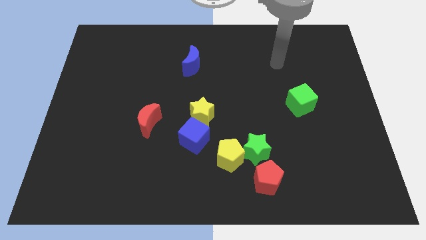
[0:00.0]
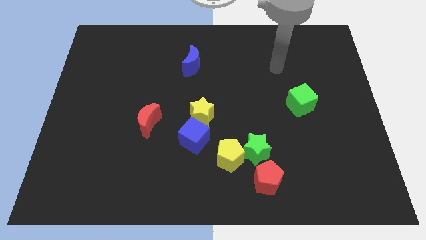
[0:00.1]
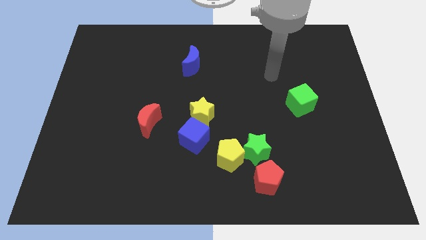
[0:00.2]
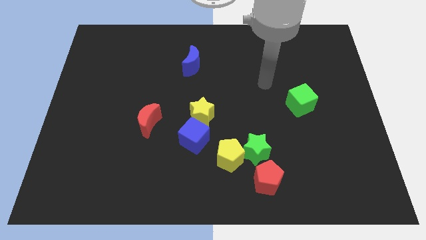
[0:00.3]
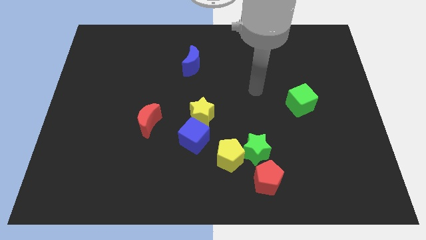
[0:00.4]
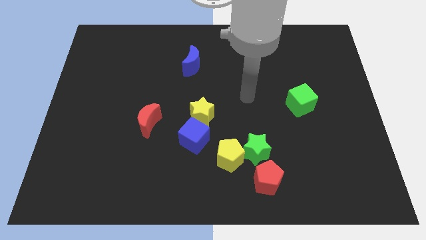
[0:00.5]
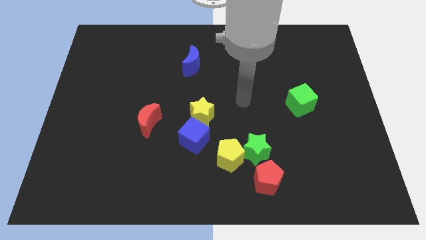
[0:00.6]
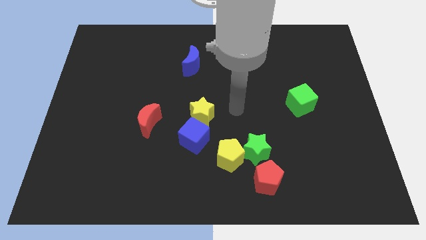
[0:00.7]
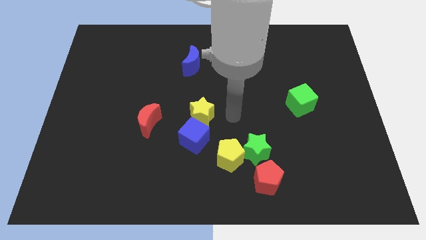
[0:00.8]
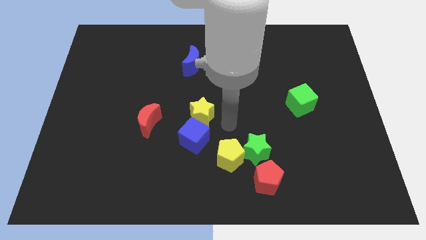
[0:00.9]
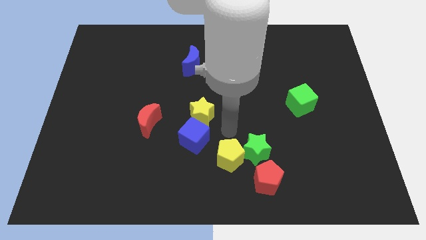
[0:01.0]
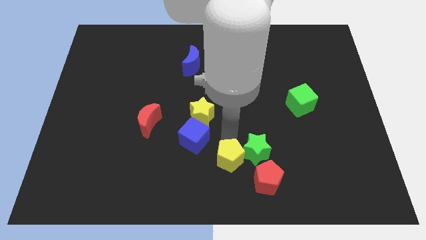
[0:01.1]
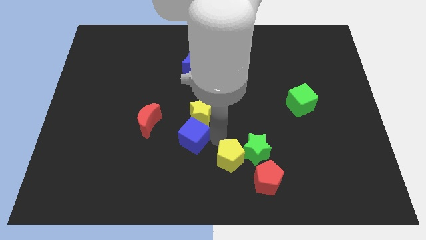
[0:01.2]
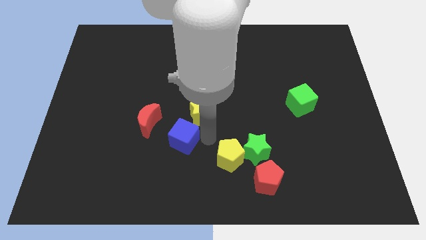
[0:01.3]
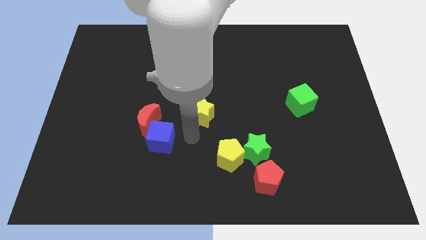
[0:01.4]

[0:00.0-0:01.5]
pull the yellow star apart from the blue cube

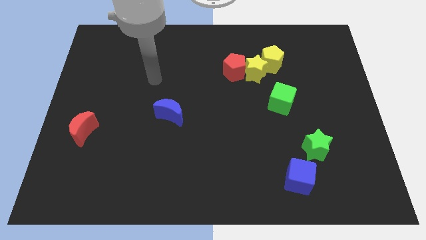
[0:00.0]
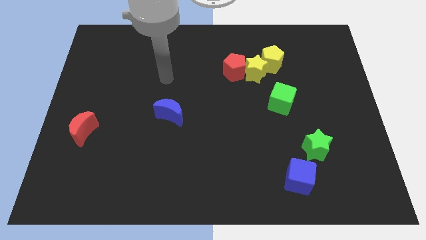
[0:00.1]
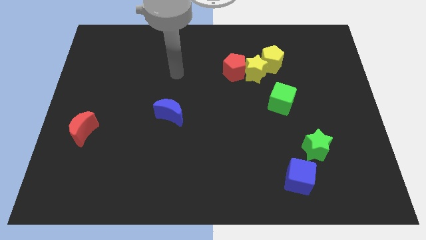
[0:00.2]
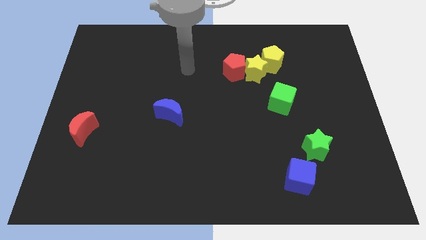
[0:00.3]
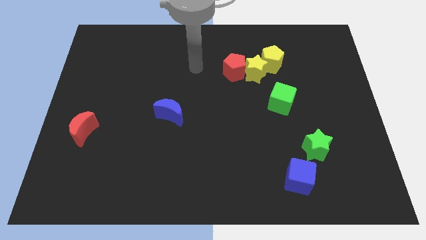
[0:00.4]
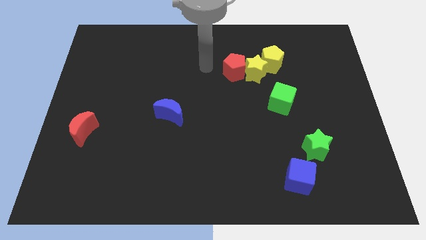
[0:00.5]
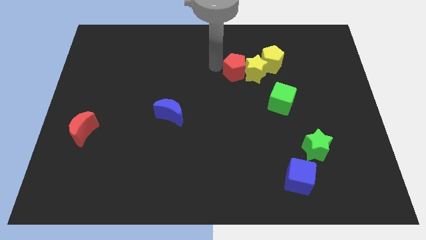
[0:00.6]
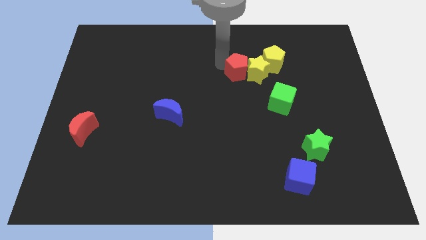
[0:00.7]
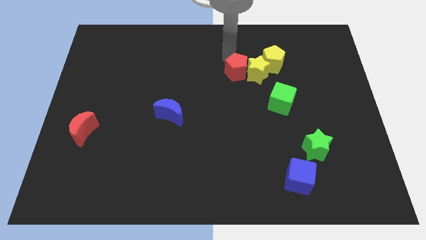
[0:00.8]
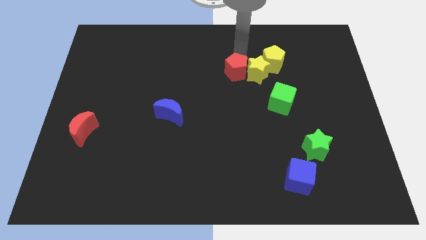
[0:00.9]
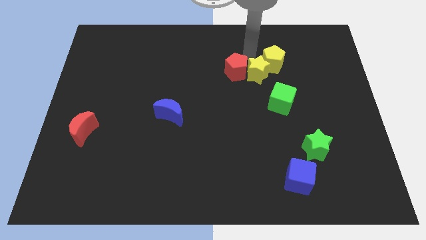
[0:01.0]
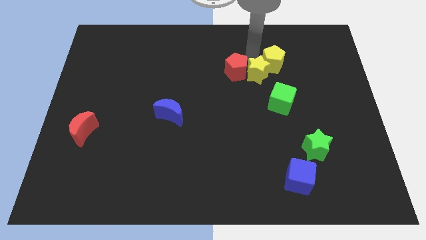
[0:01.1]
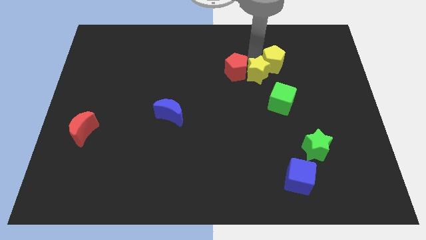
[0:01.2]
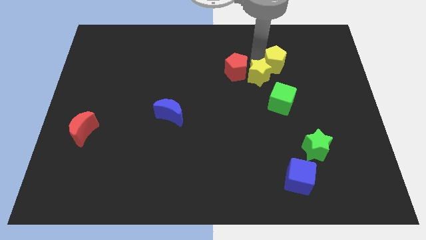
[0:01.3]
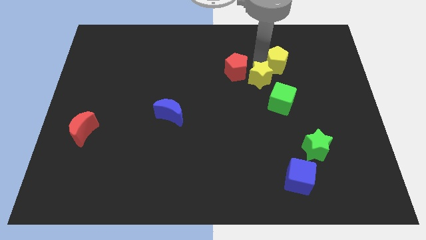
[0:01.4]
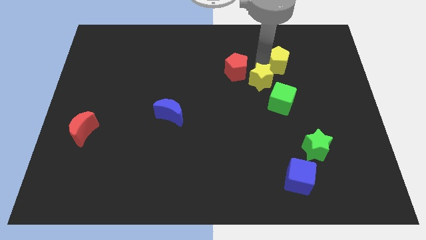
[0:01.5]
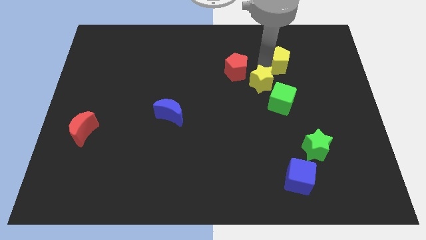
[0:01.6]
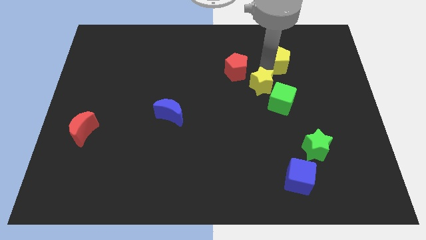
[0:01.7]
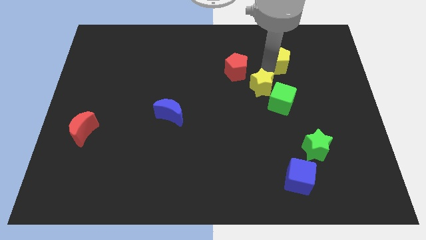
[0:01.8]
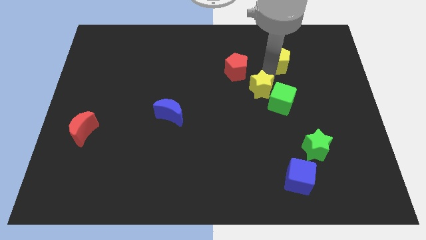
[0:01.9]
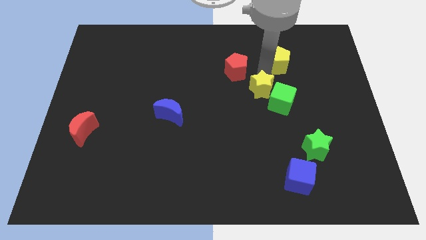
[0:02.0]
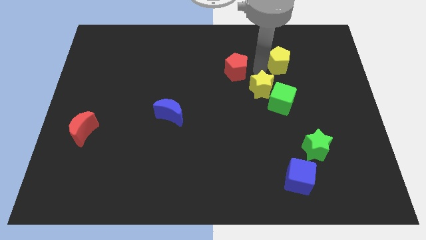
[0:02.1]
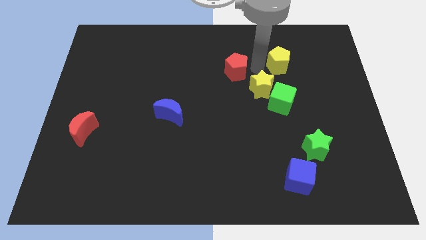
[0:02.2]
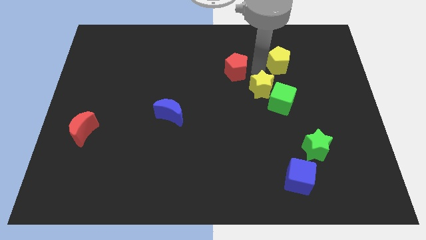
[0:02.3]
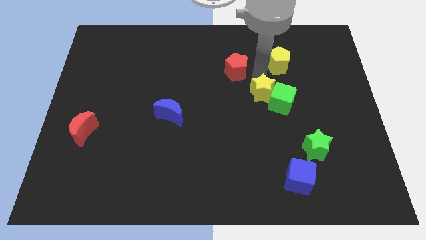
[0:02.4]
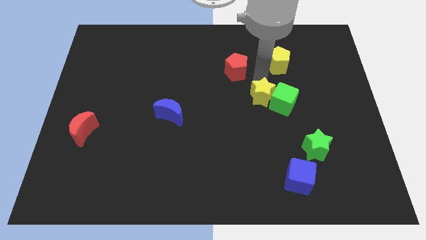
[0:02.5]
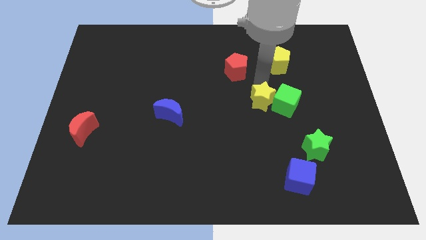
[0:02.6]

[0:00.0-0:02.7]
move the yellow star away from the red pentagon and yellow pentagon

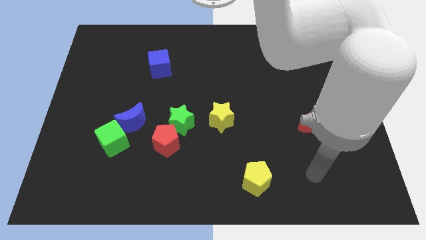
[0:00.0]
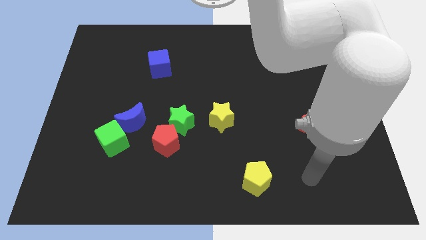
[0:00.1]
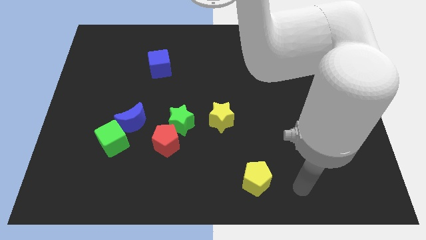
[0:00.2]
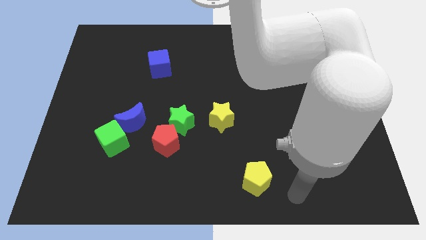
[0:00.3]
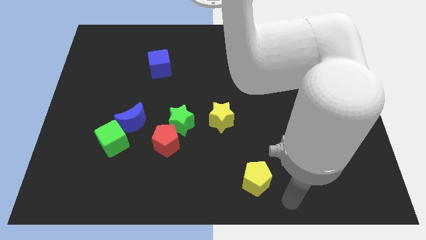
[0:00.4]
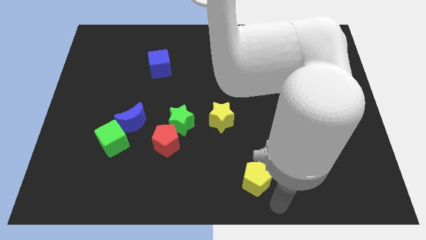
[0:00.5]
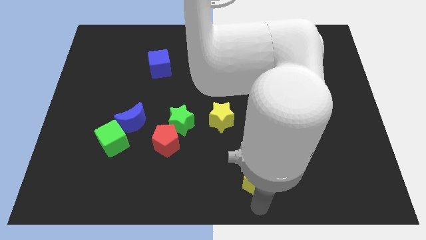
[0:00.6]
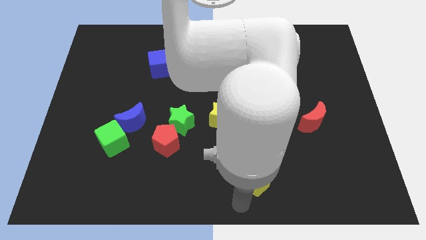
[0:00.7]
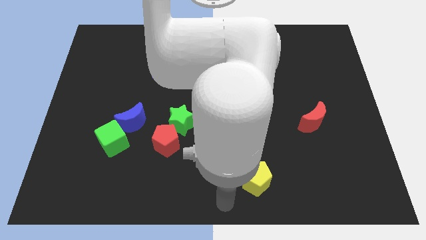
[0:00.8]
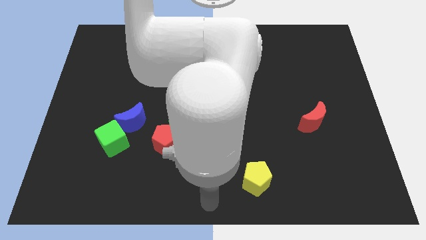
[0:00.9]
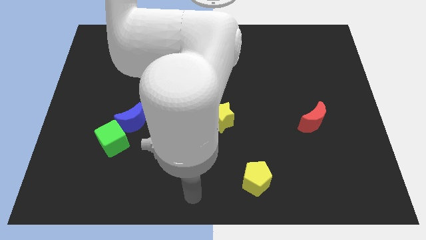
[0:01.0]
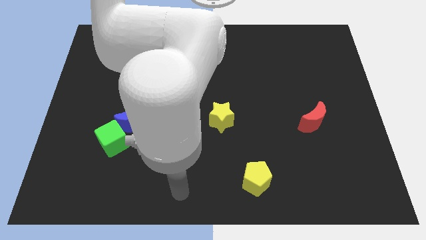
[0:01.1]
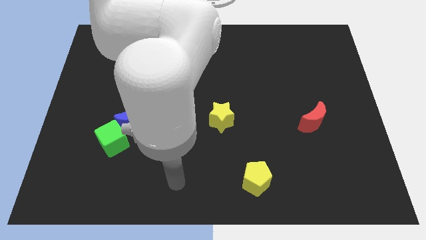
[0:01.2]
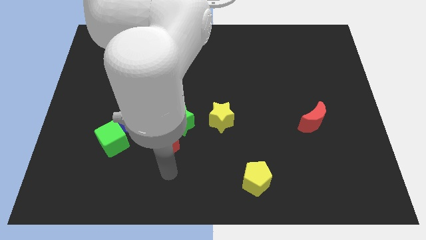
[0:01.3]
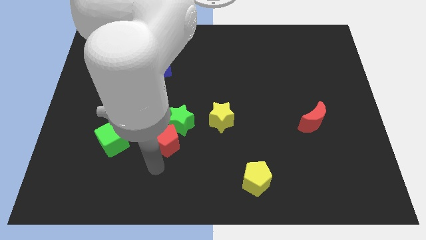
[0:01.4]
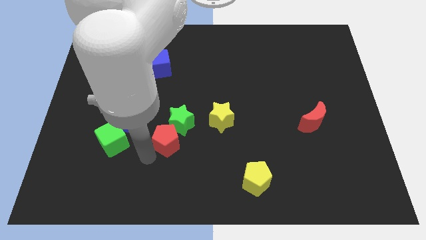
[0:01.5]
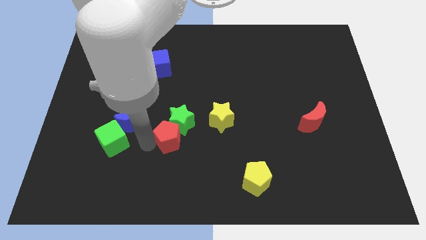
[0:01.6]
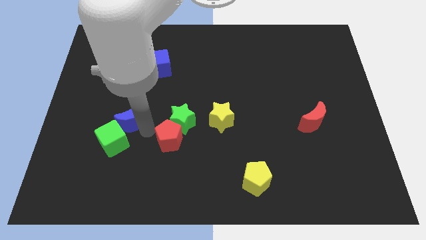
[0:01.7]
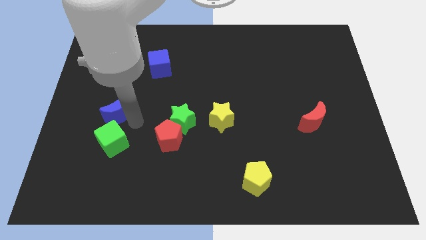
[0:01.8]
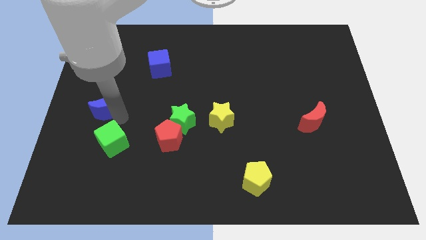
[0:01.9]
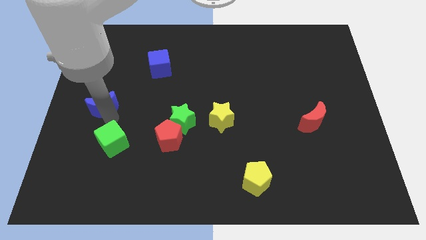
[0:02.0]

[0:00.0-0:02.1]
pull the green cube apart from the blue moon

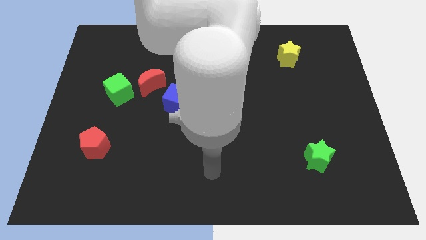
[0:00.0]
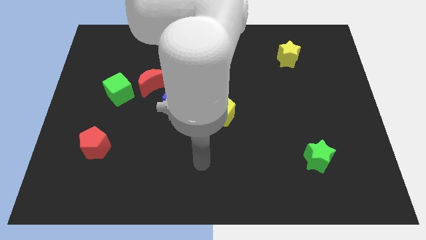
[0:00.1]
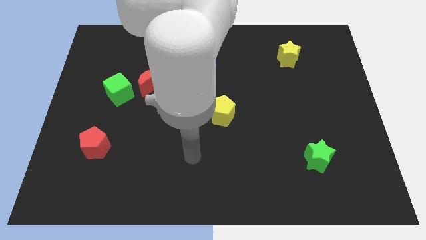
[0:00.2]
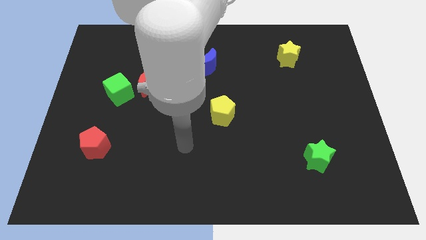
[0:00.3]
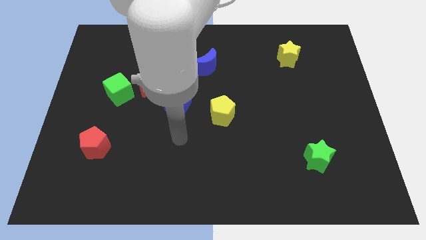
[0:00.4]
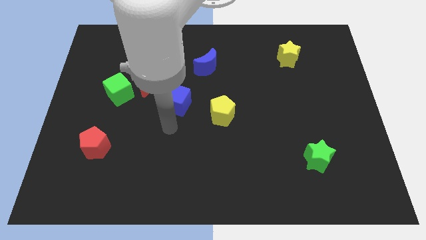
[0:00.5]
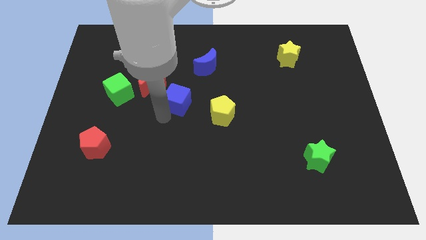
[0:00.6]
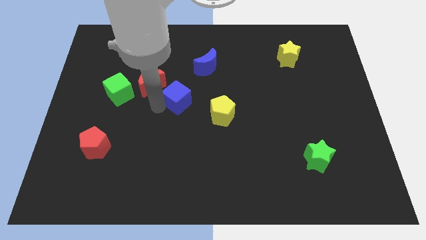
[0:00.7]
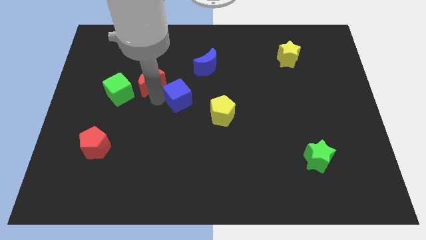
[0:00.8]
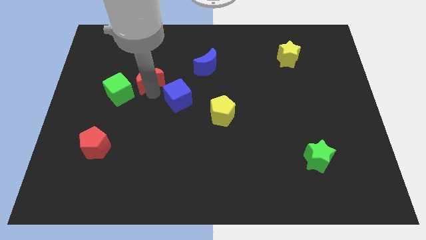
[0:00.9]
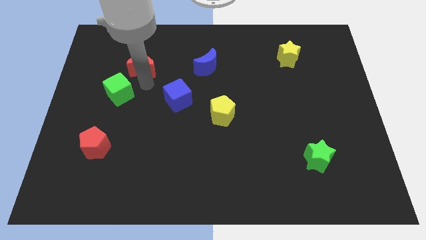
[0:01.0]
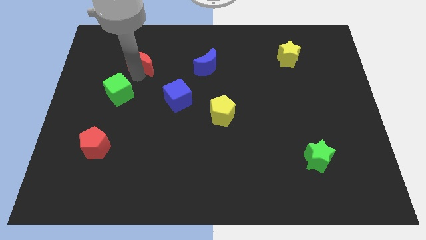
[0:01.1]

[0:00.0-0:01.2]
pull the green cube apart from the red moon

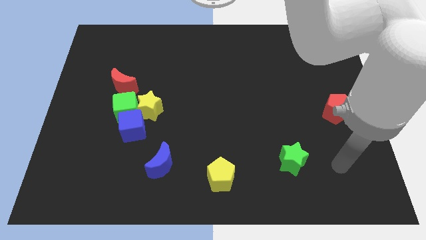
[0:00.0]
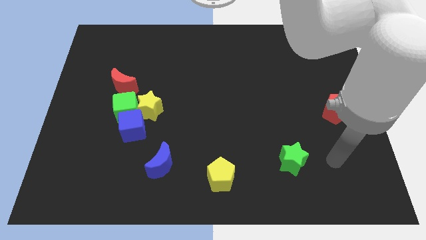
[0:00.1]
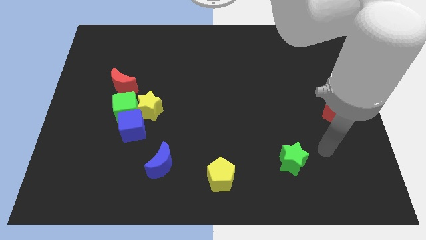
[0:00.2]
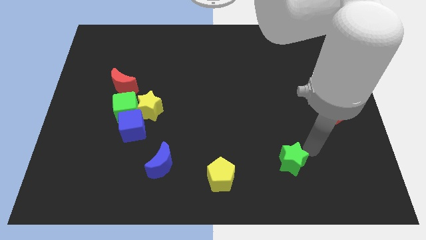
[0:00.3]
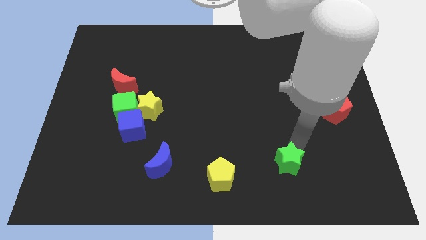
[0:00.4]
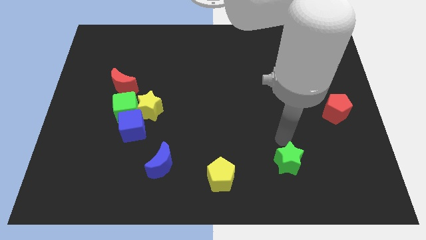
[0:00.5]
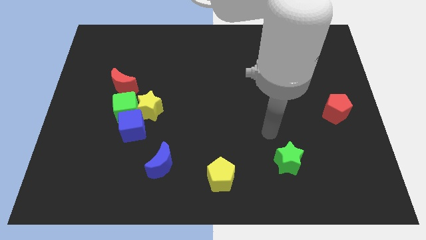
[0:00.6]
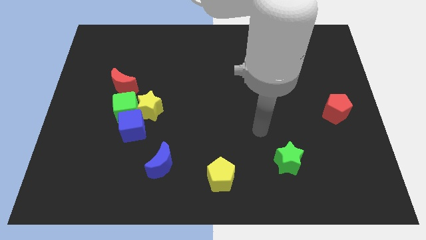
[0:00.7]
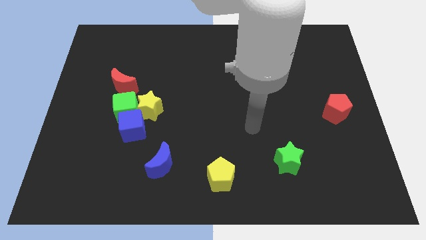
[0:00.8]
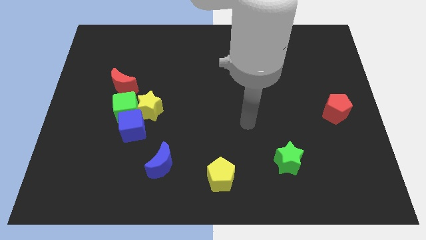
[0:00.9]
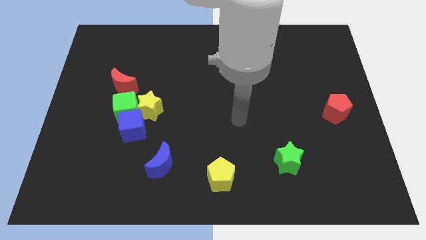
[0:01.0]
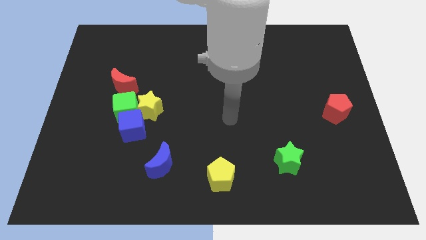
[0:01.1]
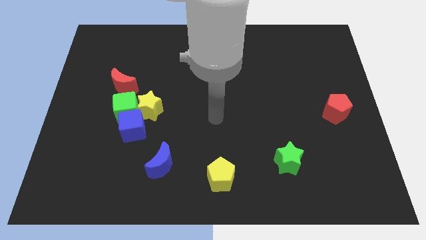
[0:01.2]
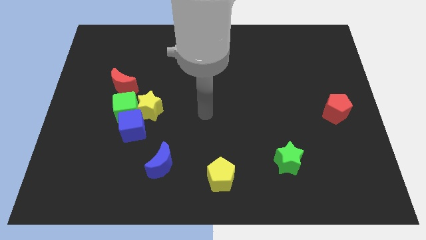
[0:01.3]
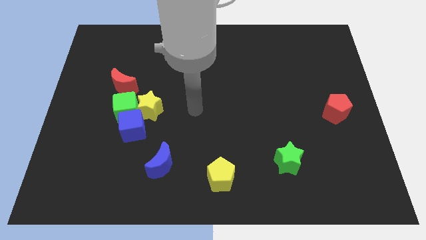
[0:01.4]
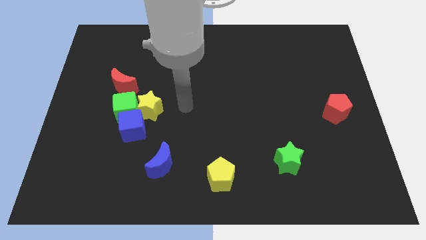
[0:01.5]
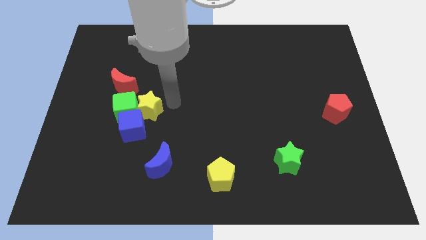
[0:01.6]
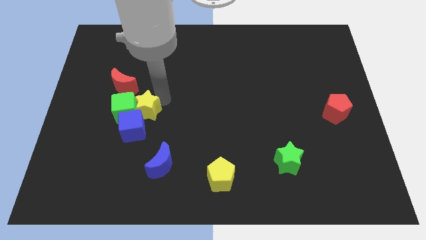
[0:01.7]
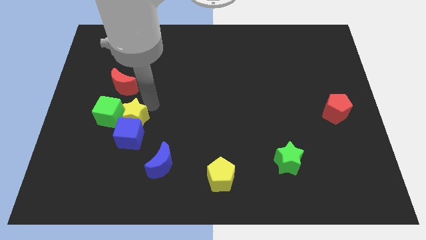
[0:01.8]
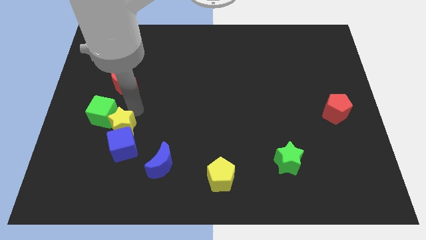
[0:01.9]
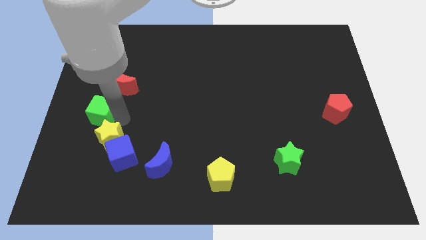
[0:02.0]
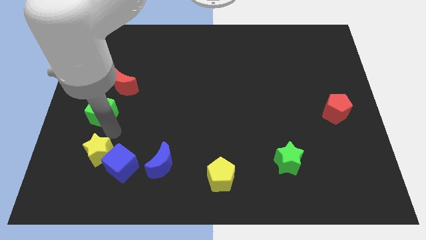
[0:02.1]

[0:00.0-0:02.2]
pull the blue cube apart from the green cube and yellow star
